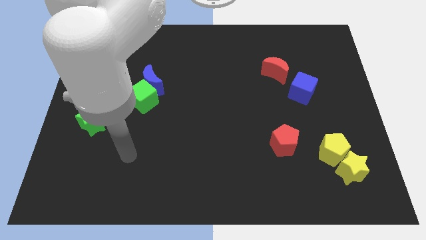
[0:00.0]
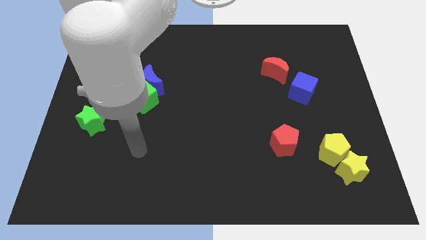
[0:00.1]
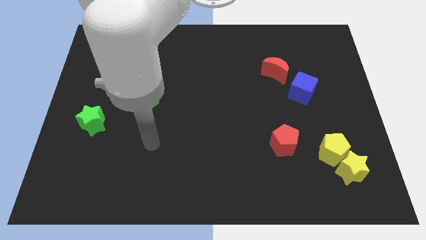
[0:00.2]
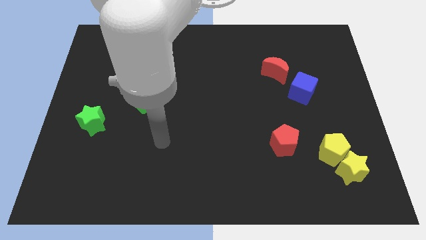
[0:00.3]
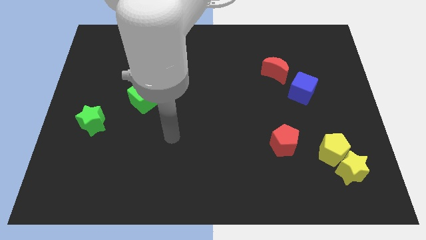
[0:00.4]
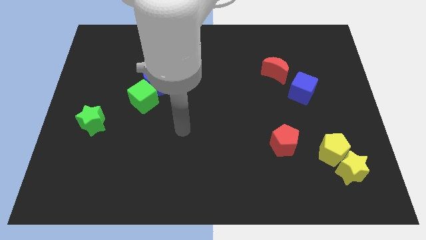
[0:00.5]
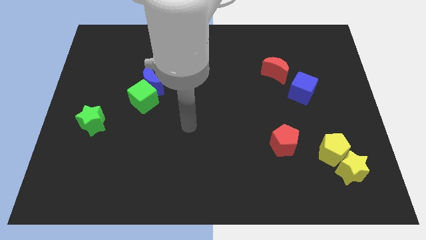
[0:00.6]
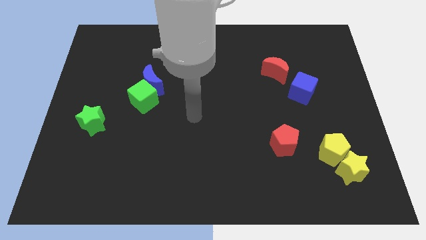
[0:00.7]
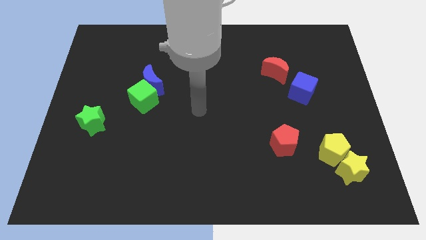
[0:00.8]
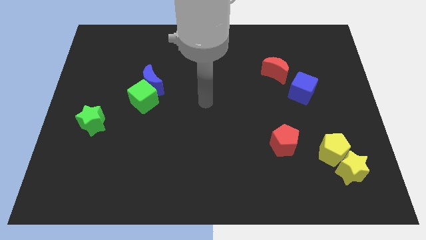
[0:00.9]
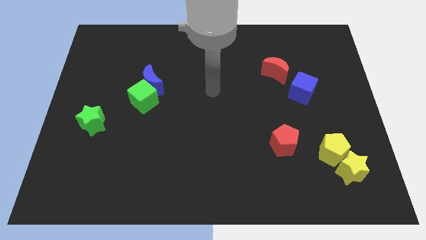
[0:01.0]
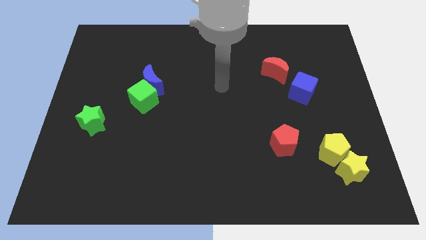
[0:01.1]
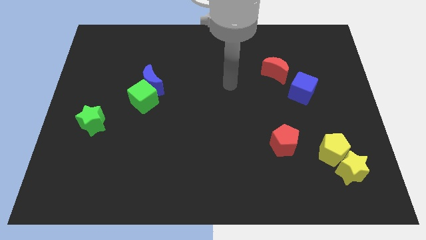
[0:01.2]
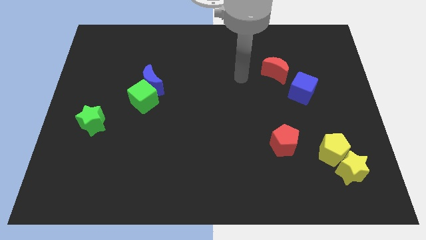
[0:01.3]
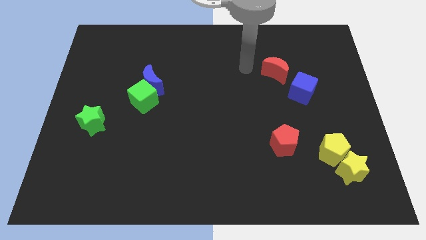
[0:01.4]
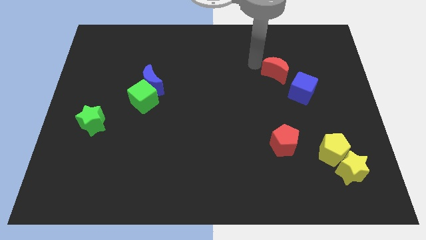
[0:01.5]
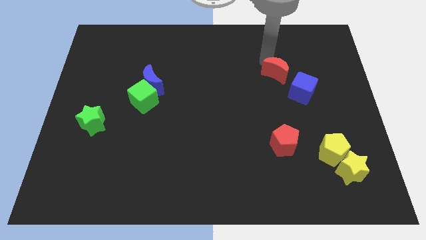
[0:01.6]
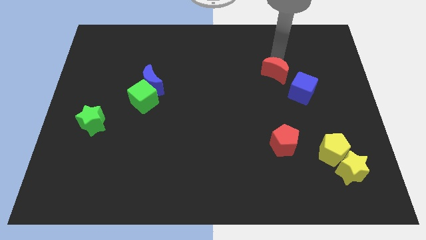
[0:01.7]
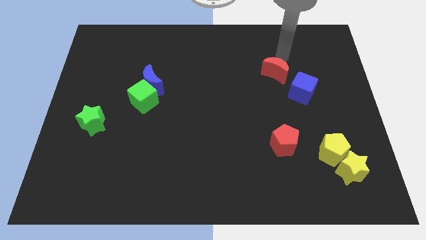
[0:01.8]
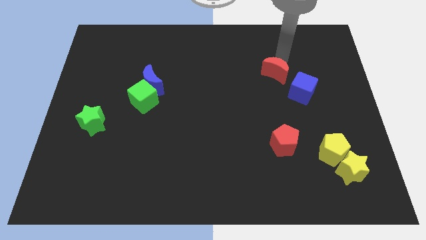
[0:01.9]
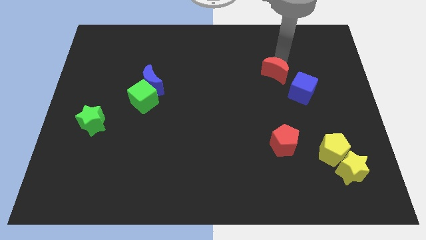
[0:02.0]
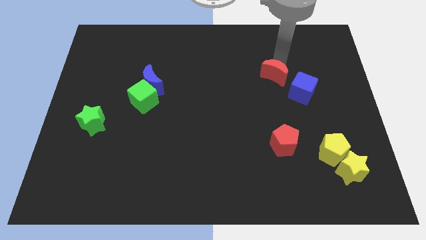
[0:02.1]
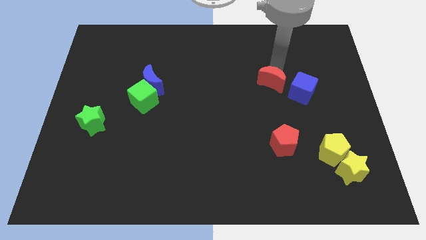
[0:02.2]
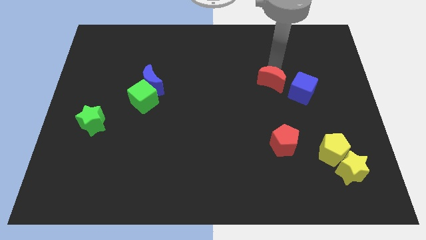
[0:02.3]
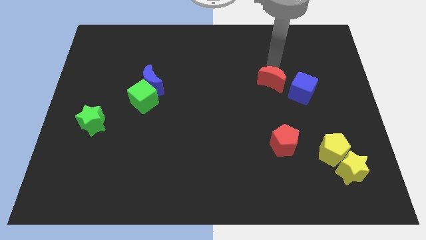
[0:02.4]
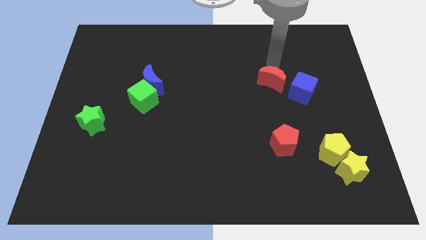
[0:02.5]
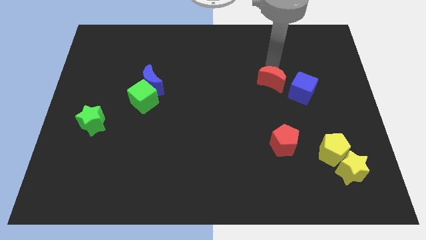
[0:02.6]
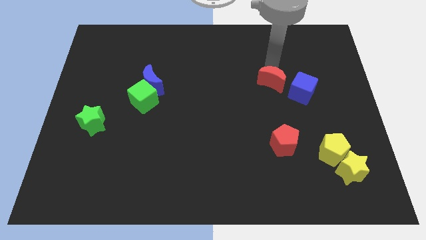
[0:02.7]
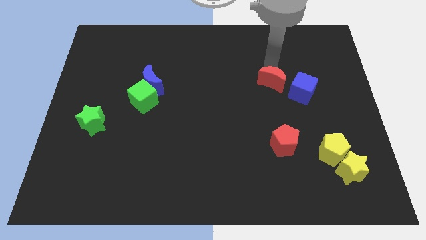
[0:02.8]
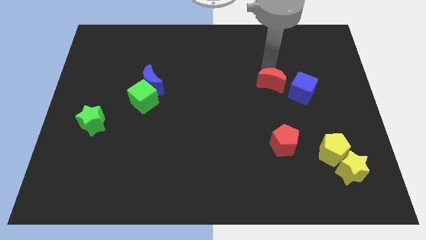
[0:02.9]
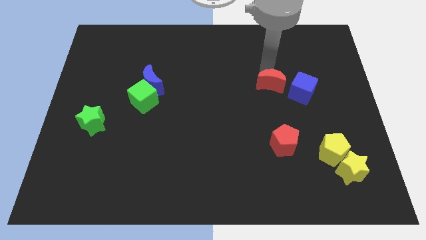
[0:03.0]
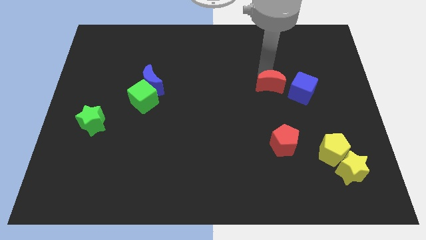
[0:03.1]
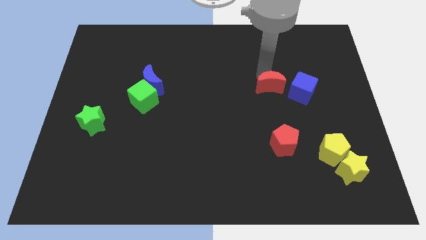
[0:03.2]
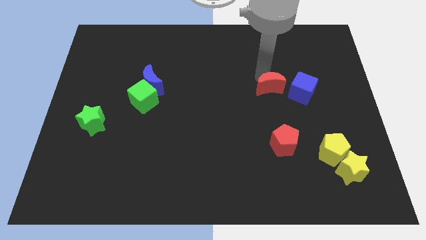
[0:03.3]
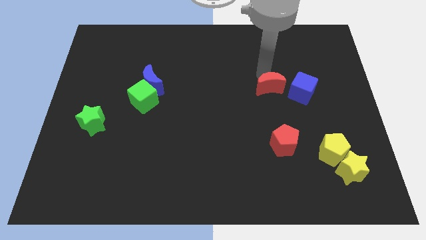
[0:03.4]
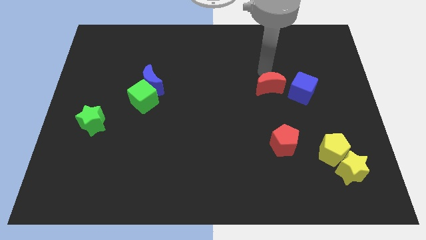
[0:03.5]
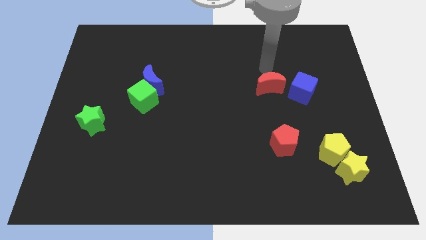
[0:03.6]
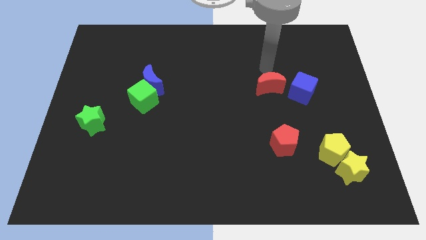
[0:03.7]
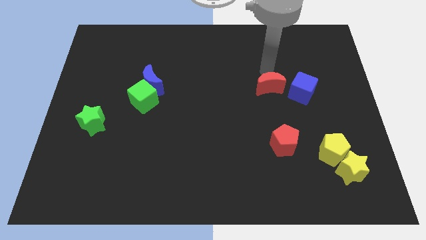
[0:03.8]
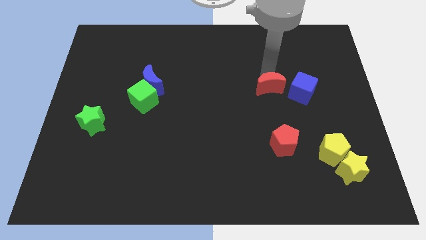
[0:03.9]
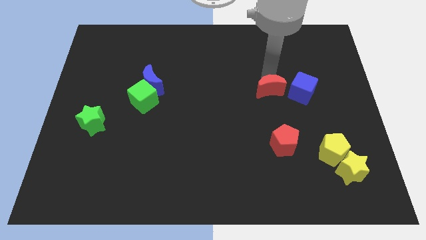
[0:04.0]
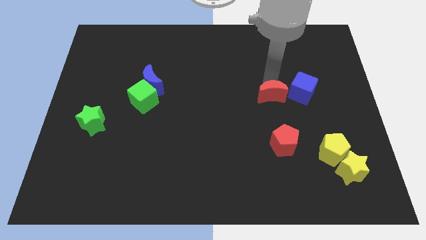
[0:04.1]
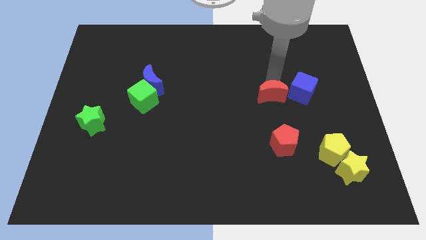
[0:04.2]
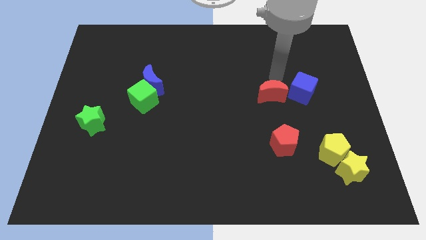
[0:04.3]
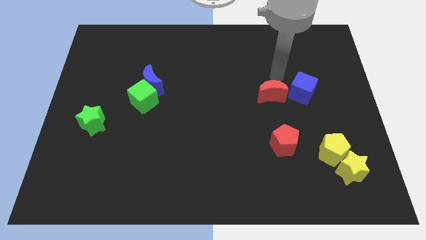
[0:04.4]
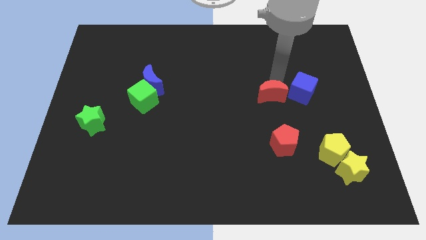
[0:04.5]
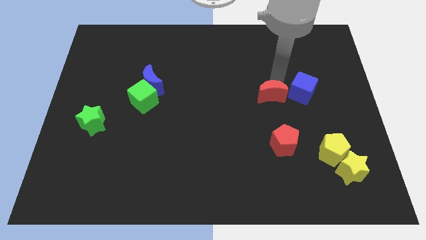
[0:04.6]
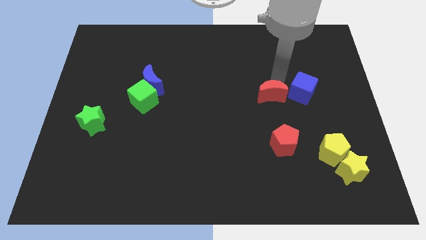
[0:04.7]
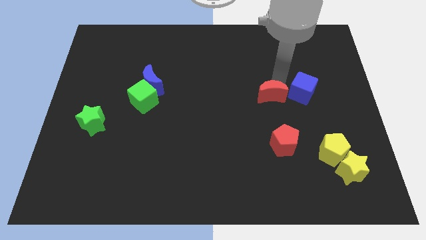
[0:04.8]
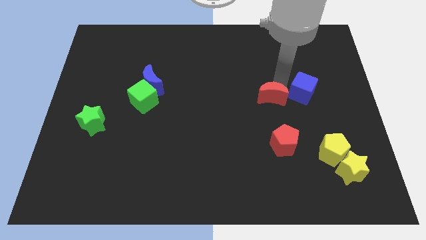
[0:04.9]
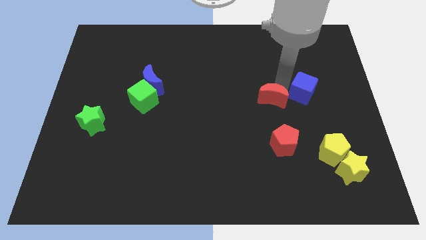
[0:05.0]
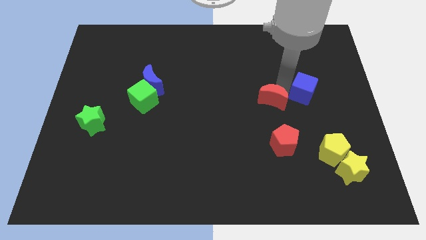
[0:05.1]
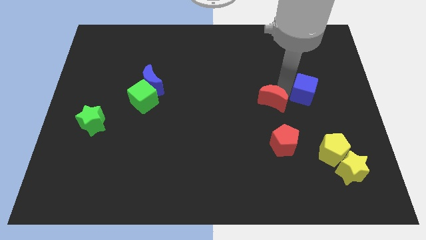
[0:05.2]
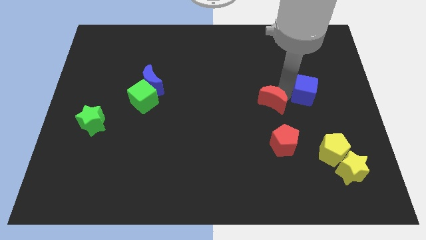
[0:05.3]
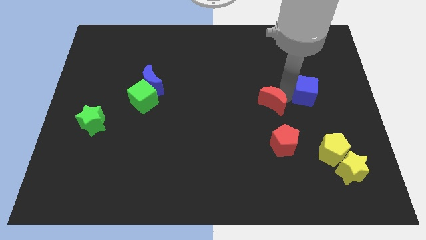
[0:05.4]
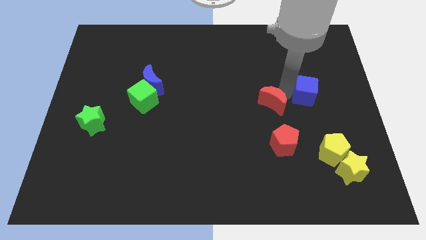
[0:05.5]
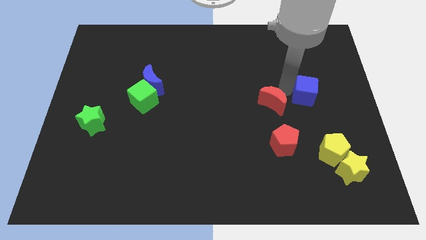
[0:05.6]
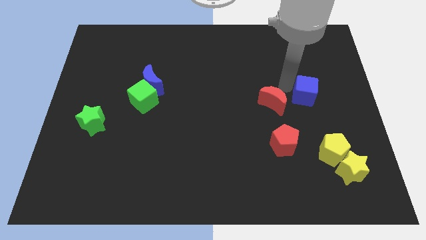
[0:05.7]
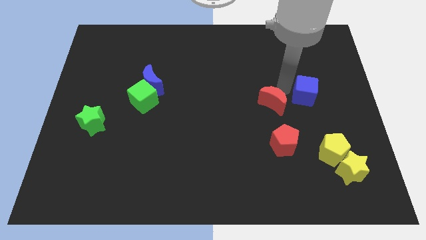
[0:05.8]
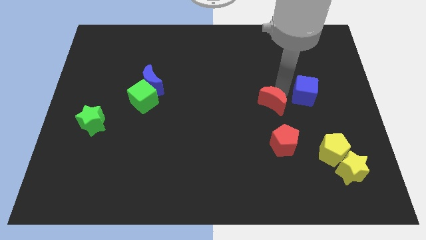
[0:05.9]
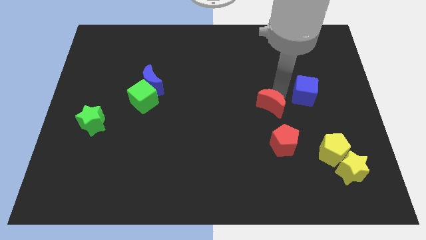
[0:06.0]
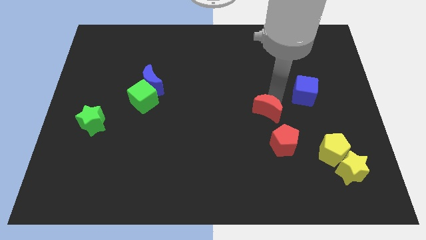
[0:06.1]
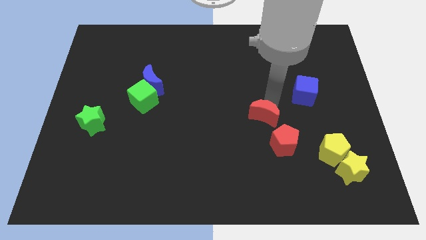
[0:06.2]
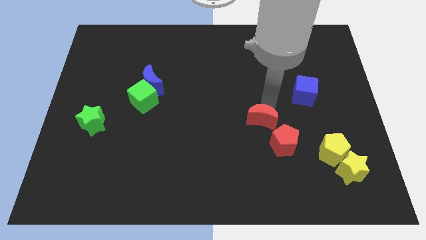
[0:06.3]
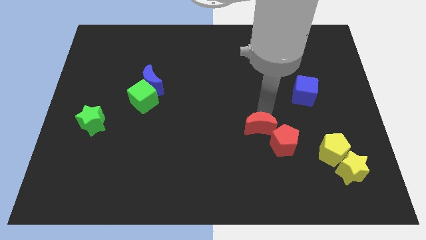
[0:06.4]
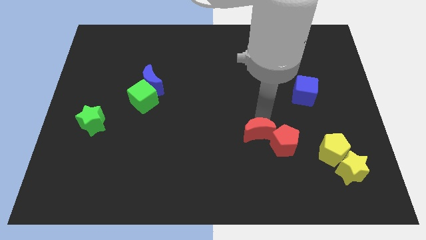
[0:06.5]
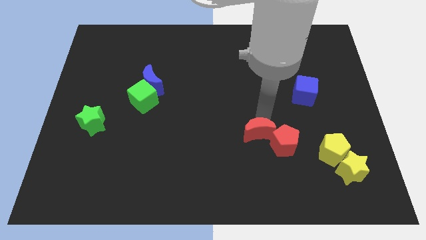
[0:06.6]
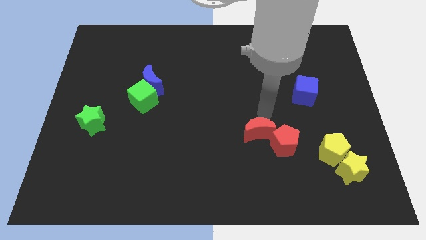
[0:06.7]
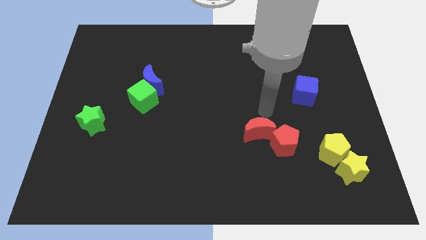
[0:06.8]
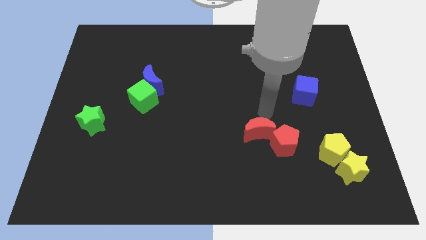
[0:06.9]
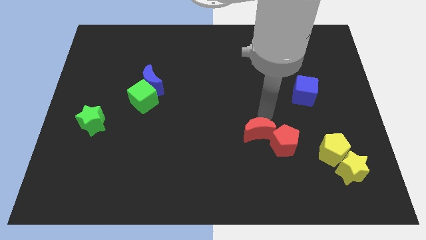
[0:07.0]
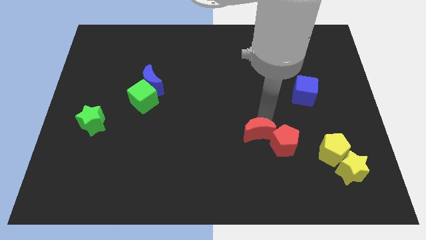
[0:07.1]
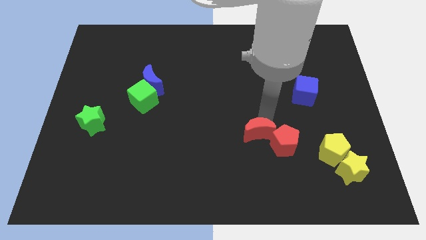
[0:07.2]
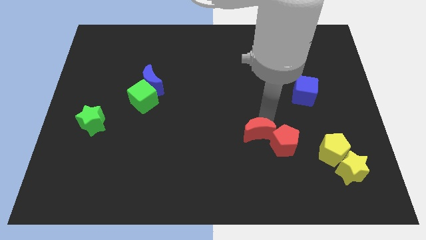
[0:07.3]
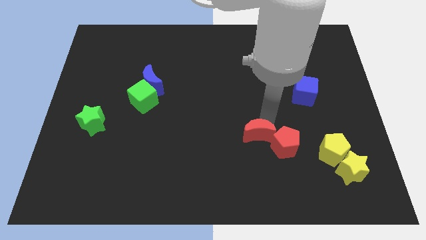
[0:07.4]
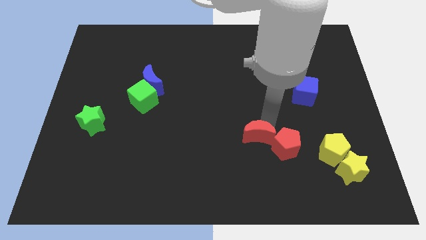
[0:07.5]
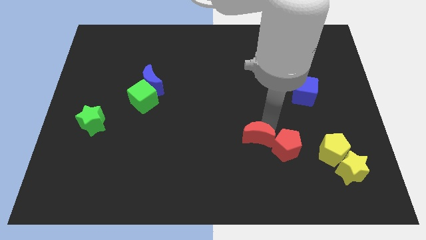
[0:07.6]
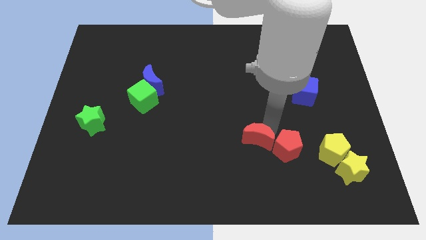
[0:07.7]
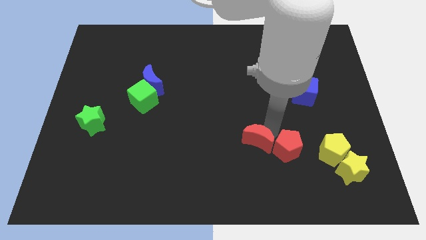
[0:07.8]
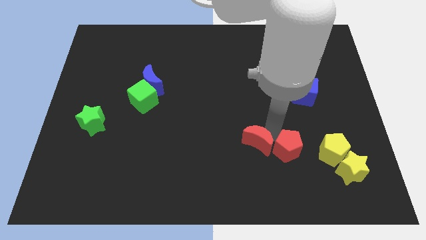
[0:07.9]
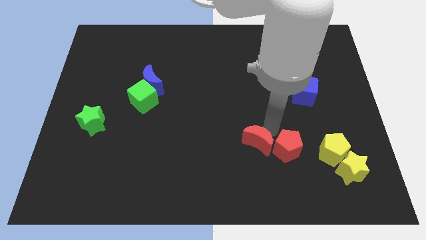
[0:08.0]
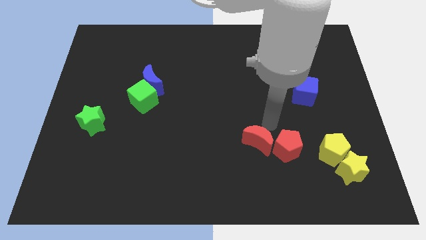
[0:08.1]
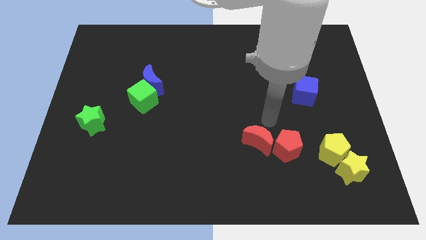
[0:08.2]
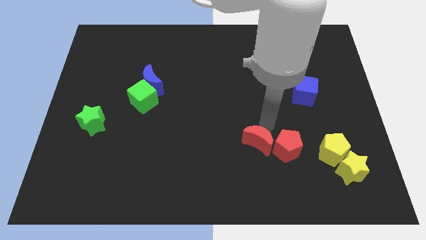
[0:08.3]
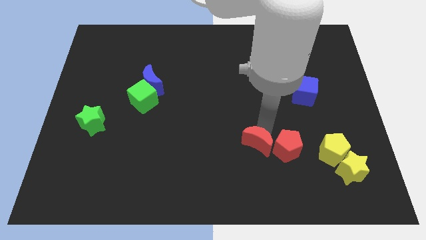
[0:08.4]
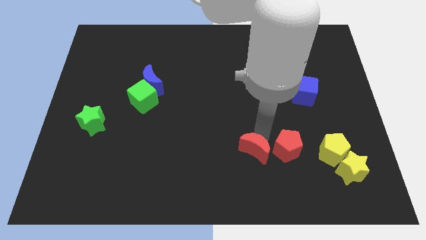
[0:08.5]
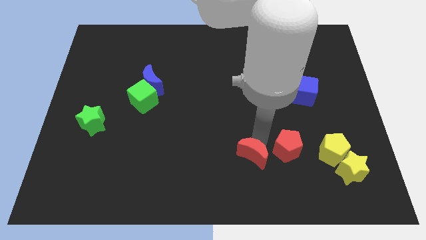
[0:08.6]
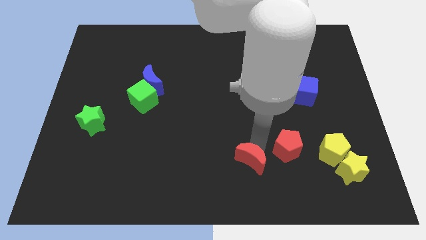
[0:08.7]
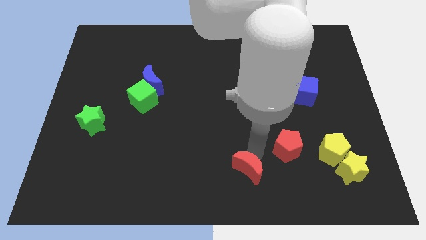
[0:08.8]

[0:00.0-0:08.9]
slide the red moon to the bottom side
